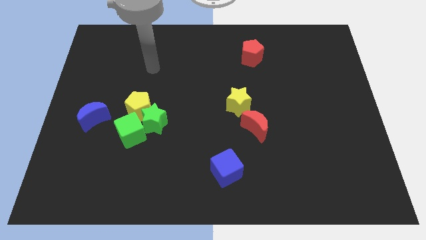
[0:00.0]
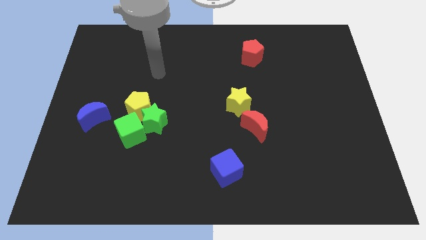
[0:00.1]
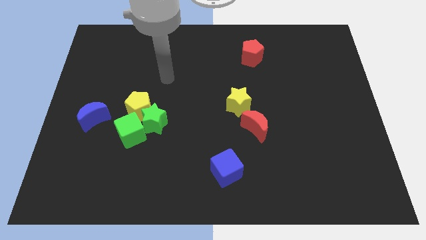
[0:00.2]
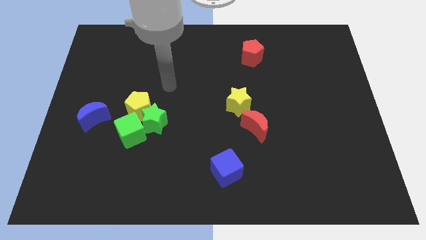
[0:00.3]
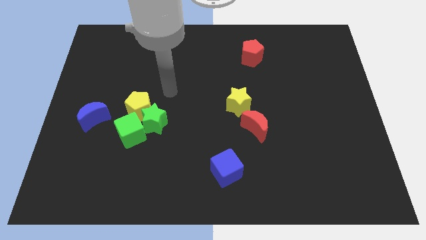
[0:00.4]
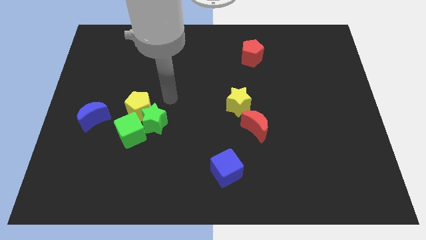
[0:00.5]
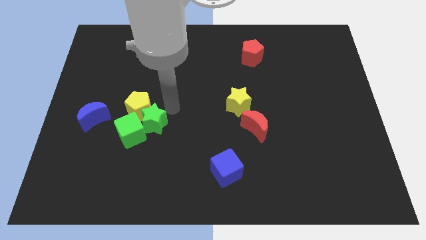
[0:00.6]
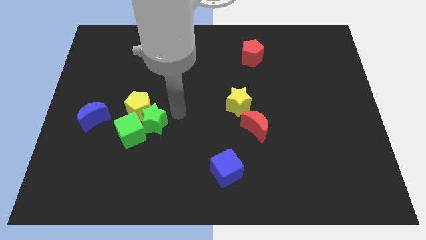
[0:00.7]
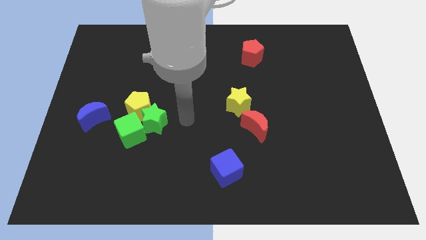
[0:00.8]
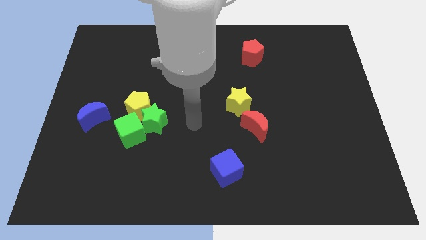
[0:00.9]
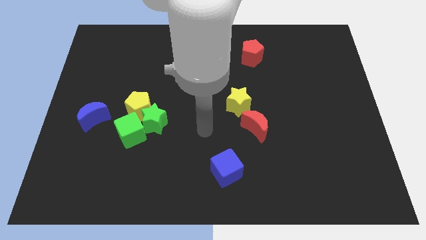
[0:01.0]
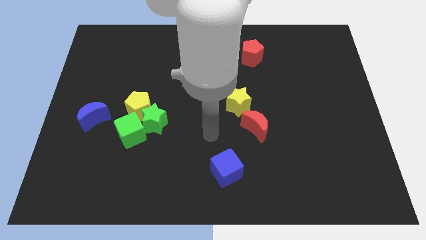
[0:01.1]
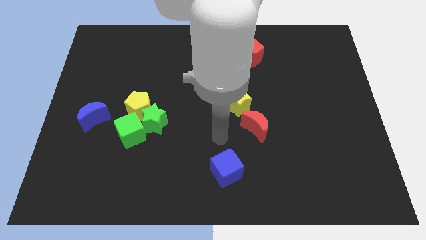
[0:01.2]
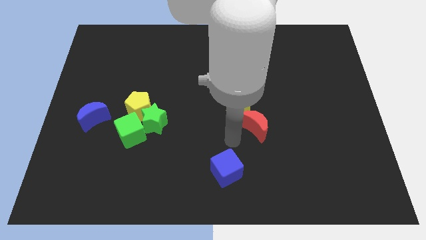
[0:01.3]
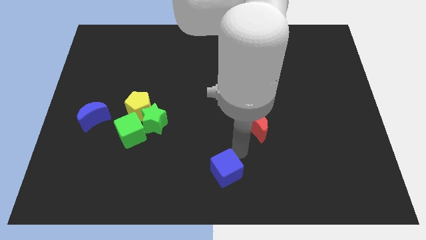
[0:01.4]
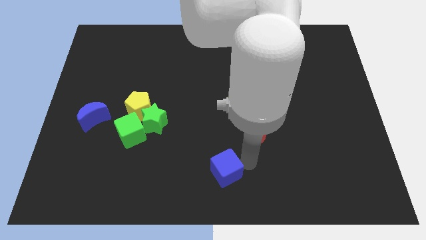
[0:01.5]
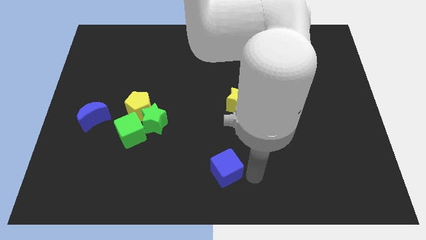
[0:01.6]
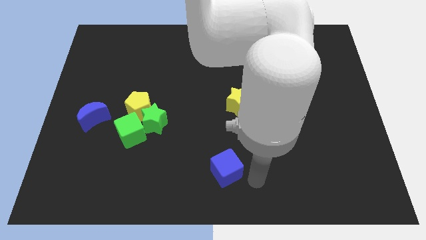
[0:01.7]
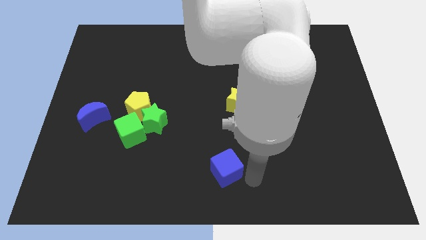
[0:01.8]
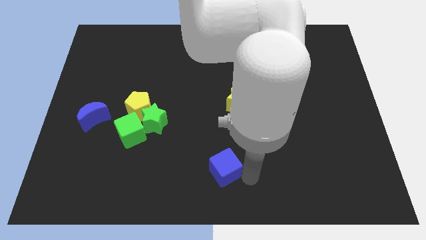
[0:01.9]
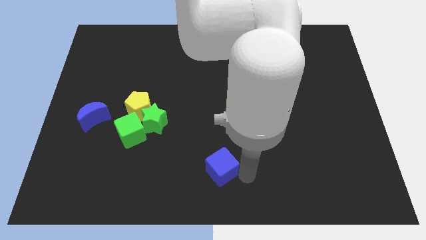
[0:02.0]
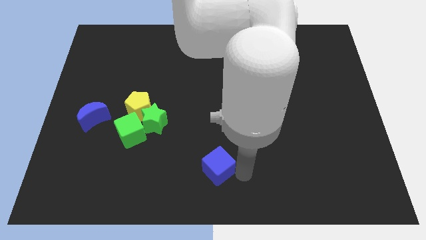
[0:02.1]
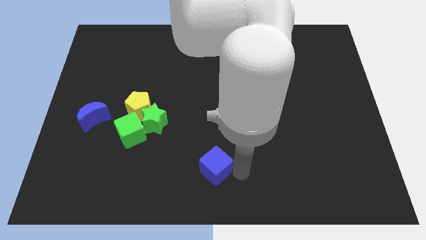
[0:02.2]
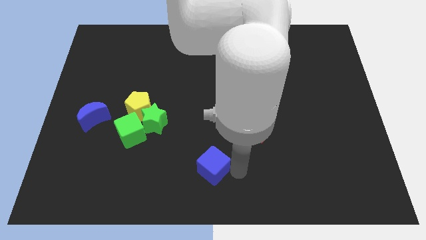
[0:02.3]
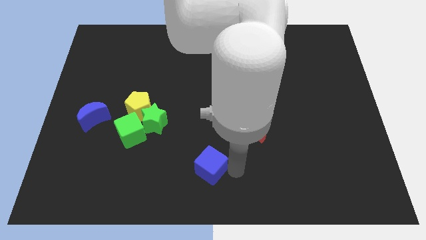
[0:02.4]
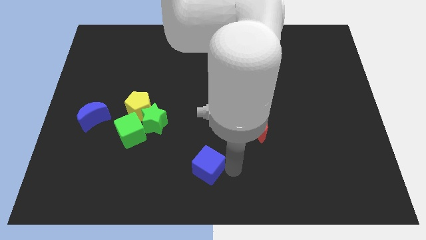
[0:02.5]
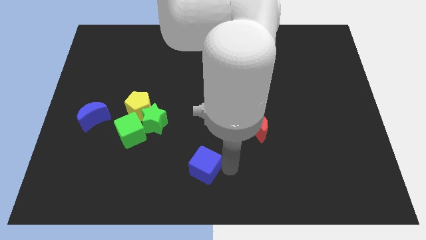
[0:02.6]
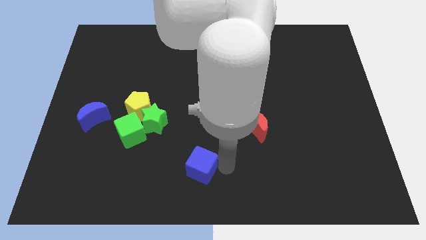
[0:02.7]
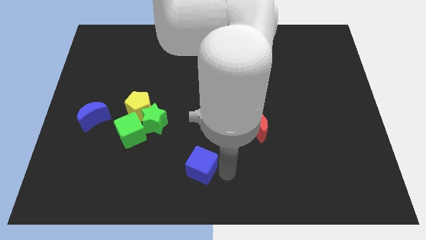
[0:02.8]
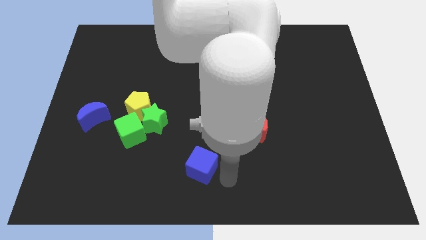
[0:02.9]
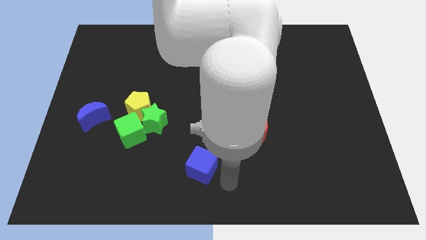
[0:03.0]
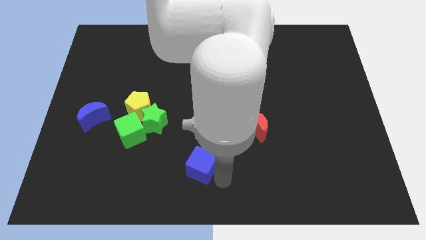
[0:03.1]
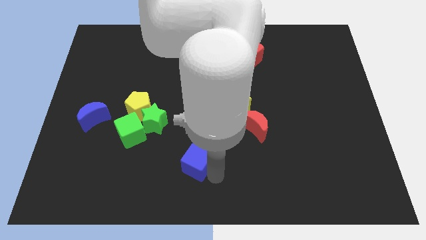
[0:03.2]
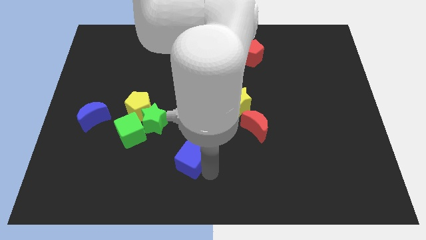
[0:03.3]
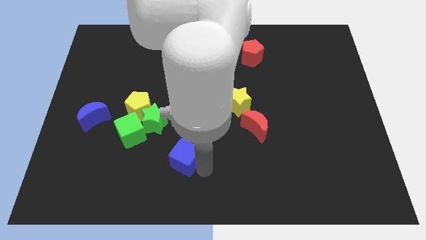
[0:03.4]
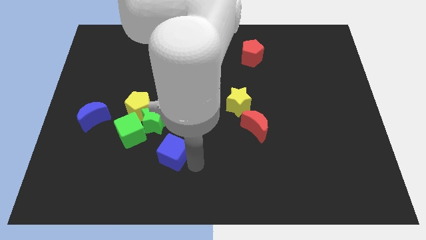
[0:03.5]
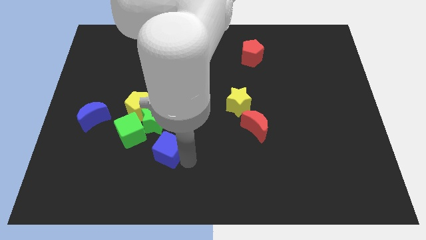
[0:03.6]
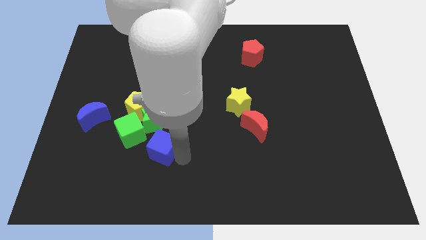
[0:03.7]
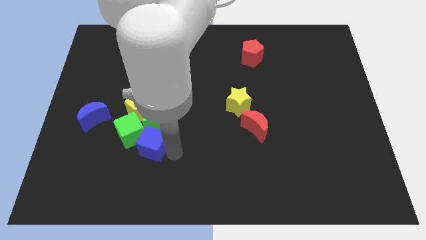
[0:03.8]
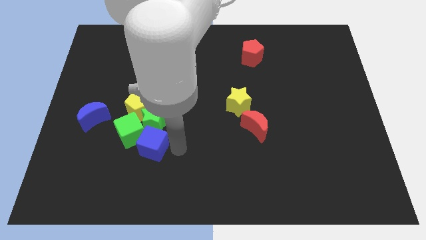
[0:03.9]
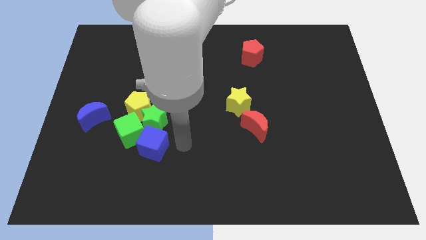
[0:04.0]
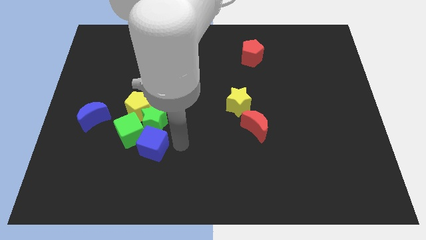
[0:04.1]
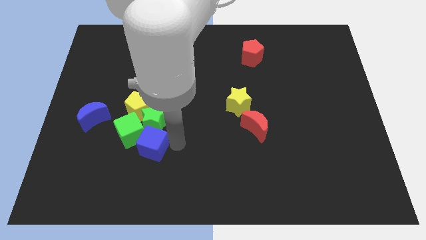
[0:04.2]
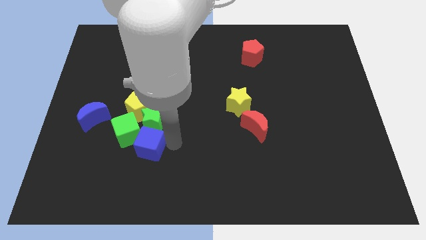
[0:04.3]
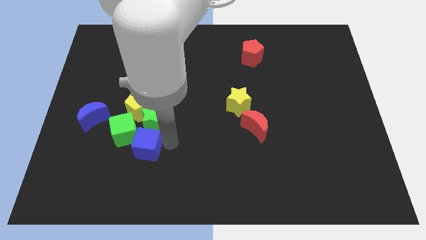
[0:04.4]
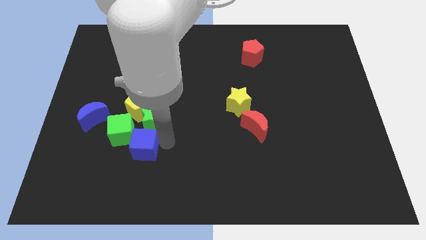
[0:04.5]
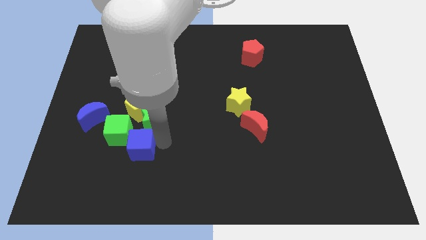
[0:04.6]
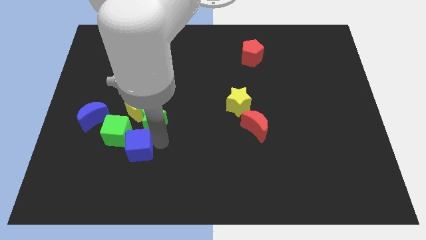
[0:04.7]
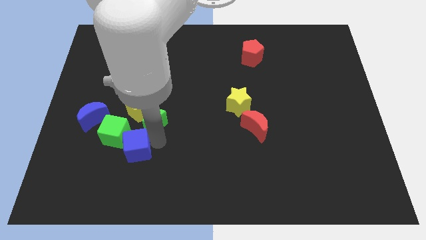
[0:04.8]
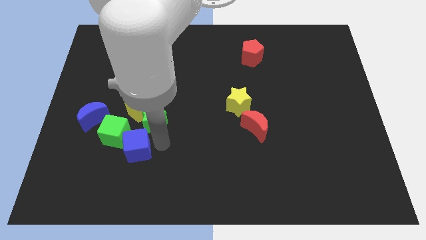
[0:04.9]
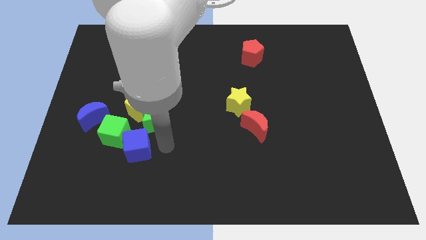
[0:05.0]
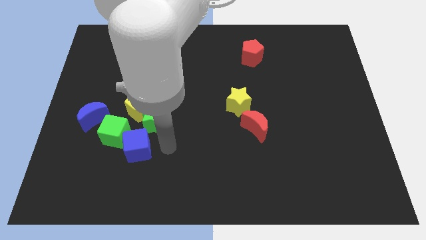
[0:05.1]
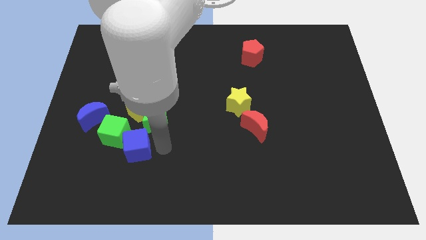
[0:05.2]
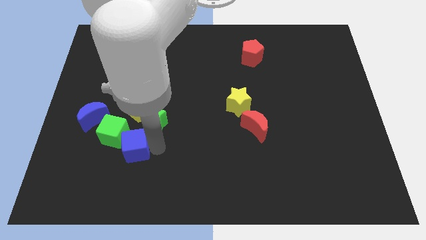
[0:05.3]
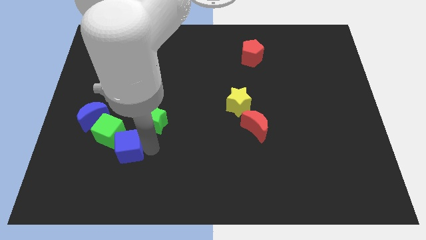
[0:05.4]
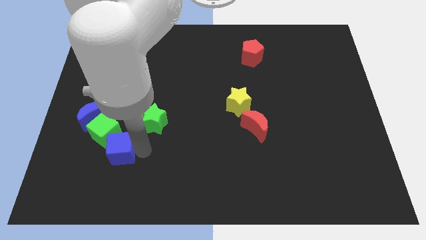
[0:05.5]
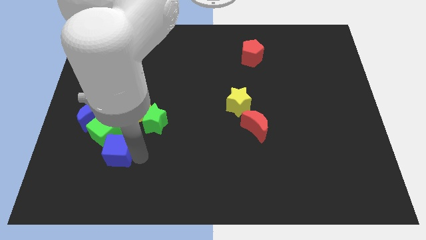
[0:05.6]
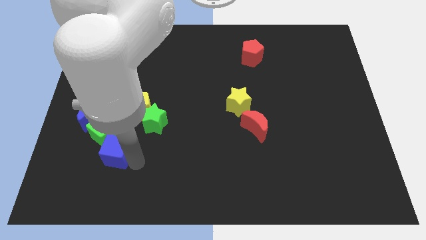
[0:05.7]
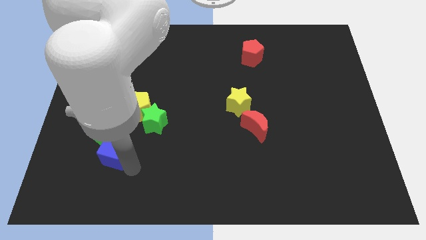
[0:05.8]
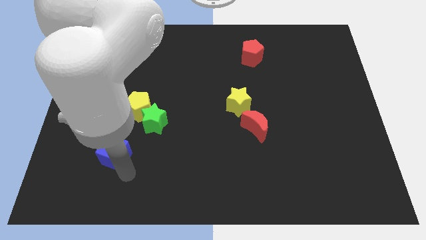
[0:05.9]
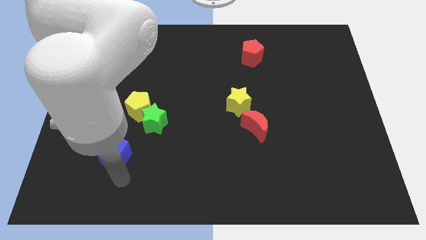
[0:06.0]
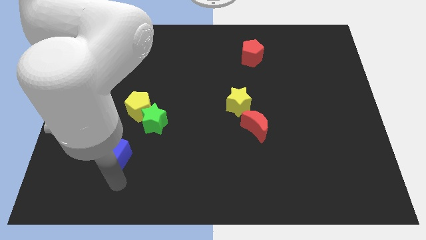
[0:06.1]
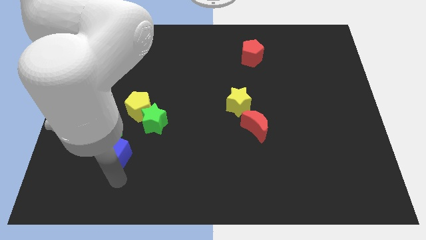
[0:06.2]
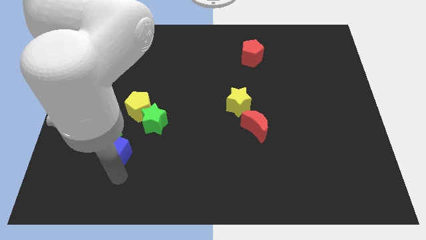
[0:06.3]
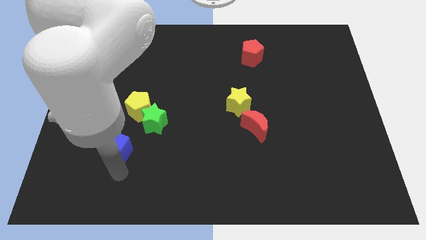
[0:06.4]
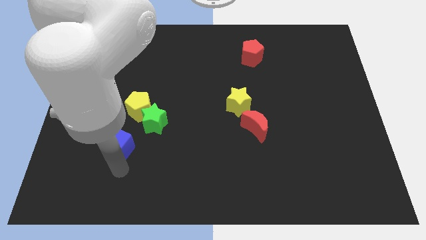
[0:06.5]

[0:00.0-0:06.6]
move the blue cube to the bottom left of the yellow pentagon

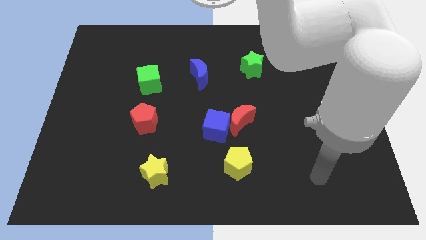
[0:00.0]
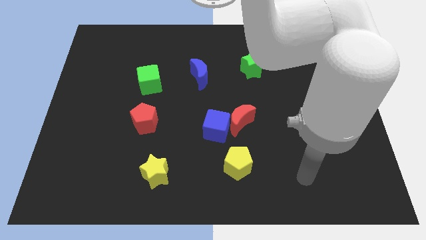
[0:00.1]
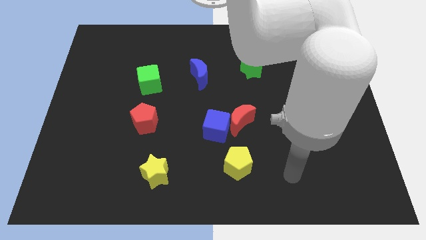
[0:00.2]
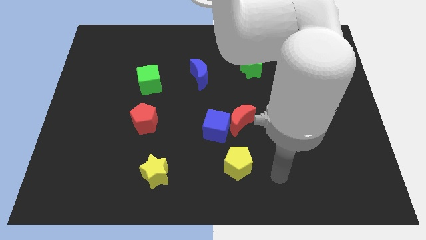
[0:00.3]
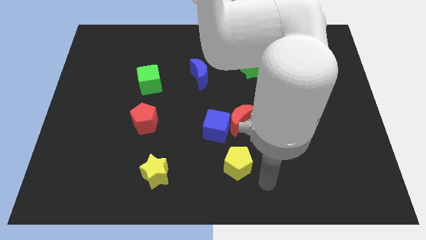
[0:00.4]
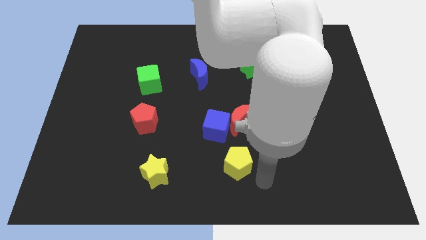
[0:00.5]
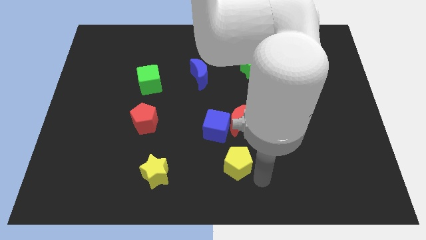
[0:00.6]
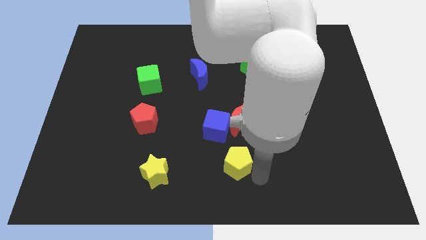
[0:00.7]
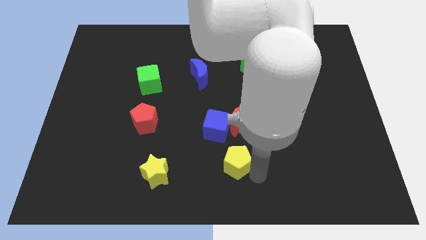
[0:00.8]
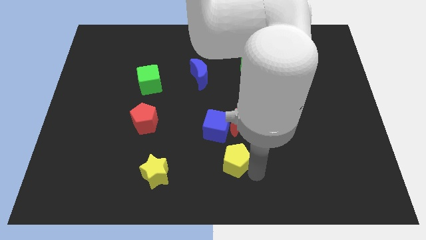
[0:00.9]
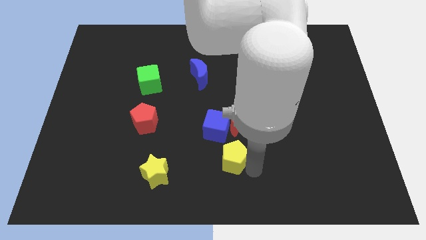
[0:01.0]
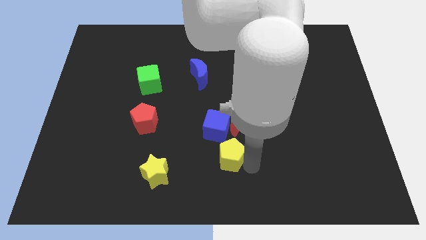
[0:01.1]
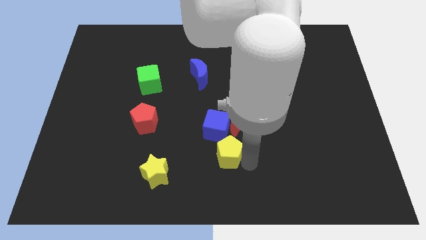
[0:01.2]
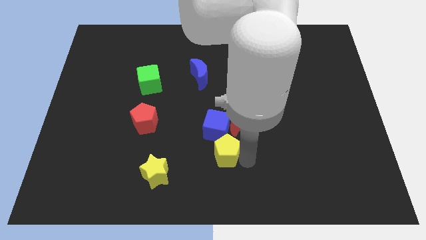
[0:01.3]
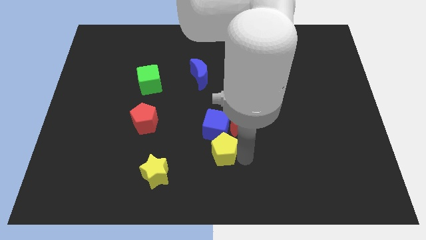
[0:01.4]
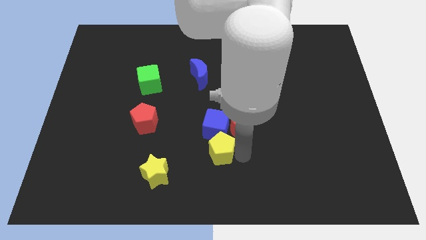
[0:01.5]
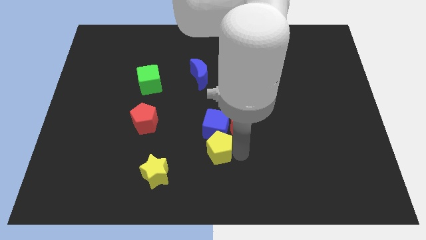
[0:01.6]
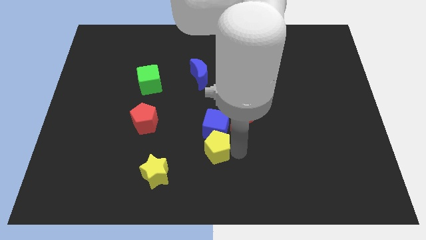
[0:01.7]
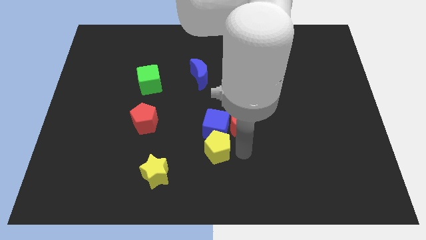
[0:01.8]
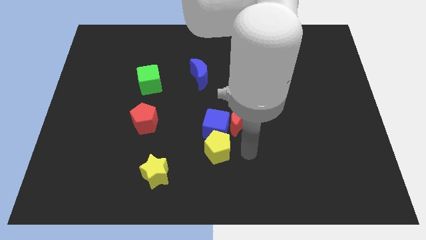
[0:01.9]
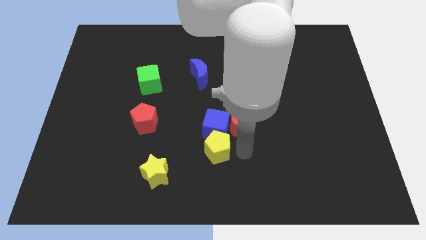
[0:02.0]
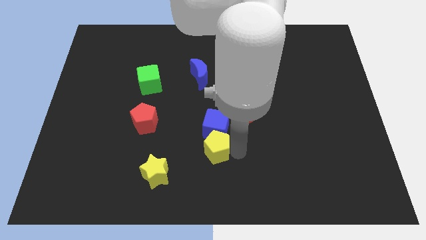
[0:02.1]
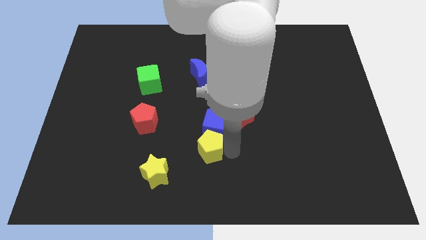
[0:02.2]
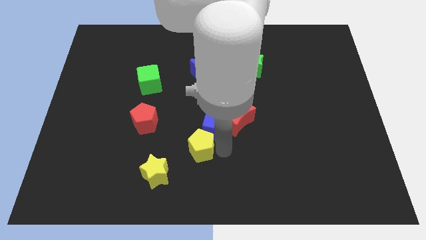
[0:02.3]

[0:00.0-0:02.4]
put the yellow pentagon diagonally up and to the right of the yellow star
